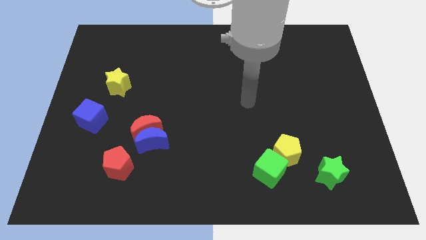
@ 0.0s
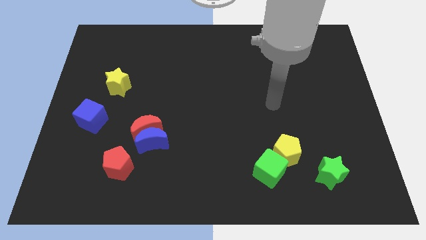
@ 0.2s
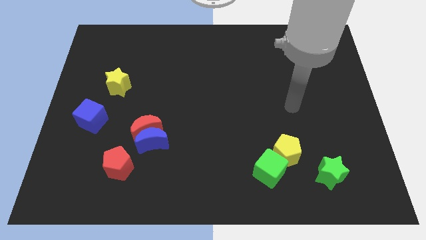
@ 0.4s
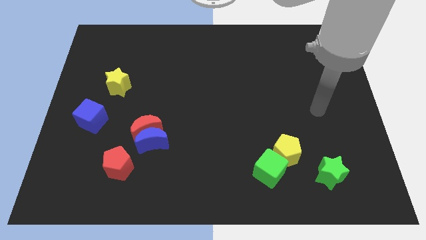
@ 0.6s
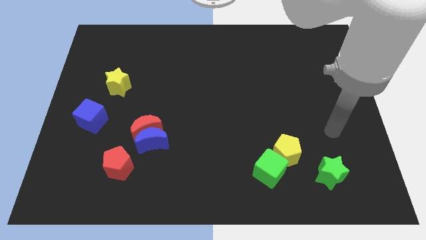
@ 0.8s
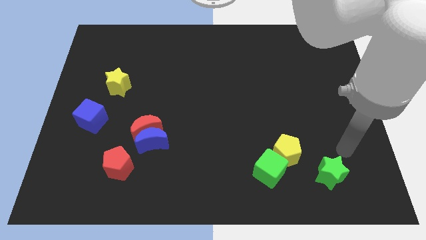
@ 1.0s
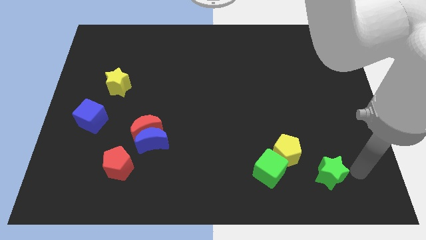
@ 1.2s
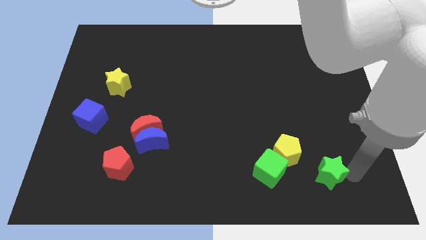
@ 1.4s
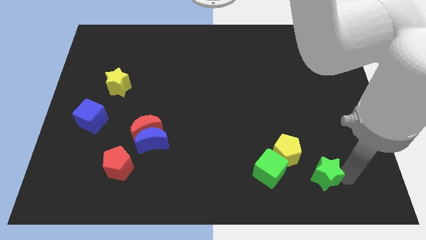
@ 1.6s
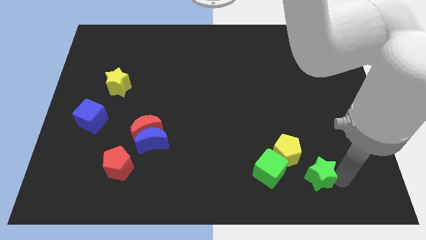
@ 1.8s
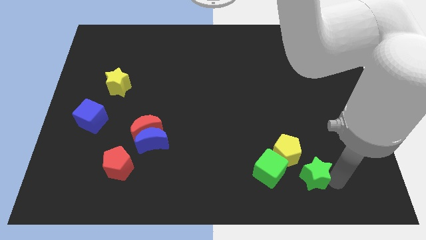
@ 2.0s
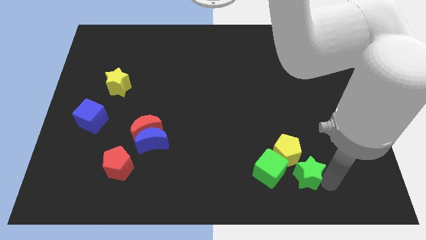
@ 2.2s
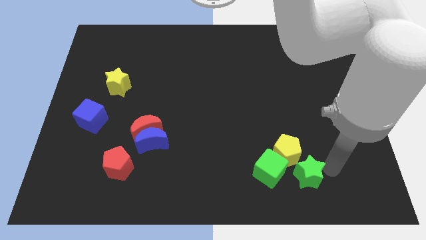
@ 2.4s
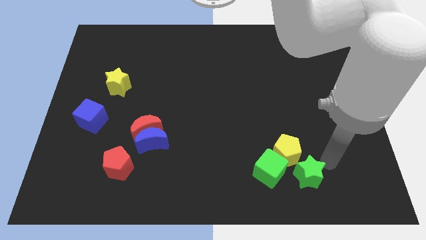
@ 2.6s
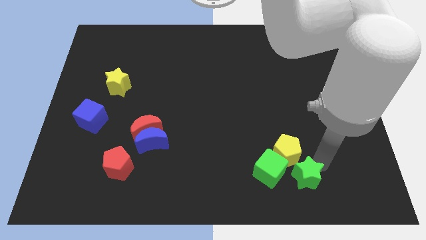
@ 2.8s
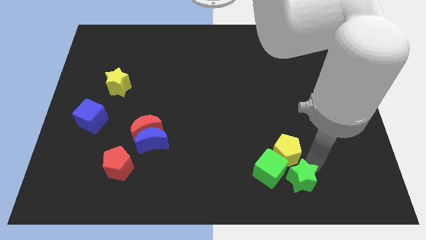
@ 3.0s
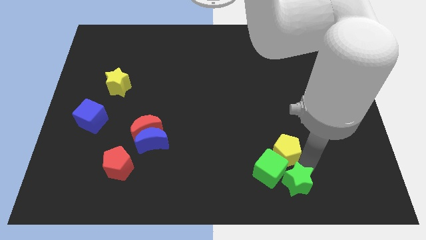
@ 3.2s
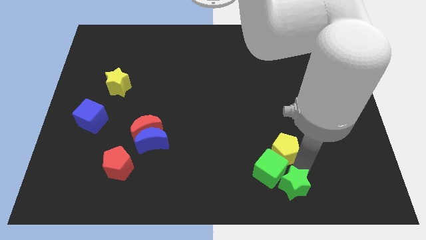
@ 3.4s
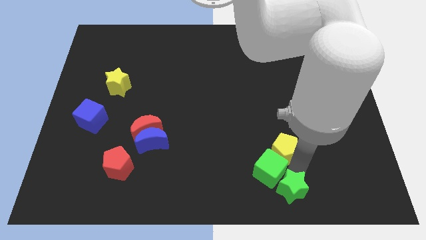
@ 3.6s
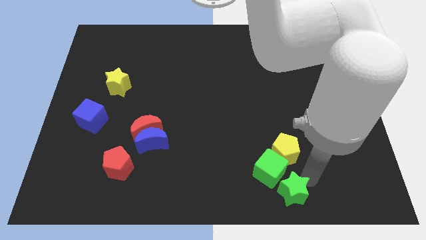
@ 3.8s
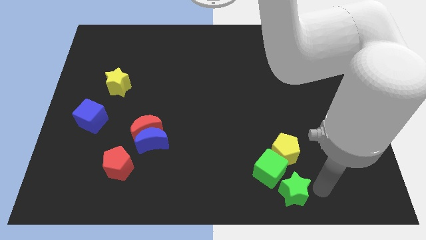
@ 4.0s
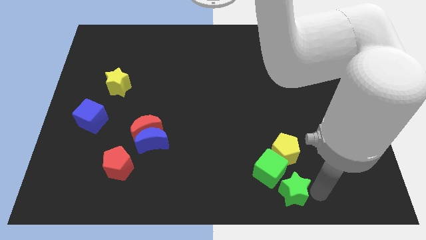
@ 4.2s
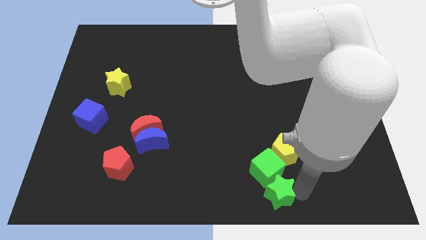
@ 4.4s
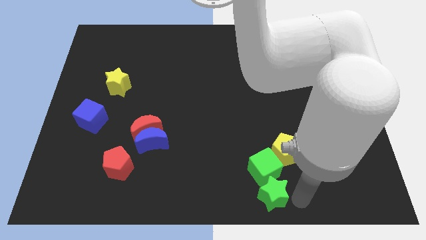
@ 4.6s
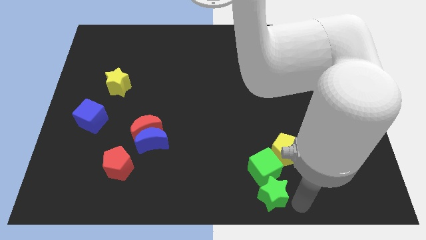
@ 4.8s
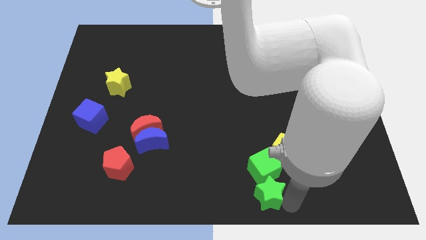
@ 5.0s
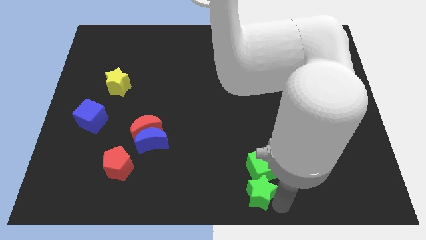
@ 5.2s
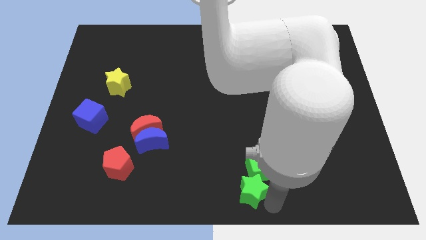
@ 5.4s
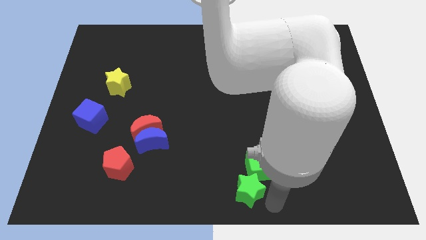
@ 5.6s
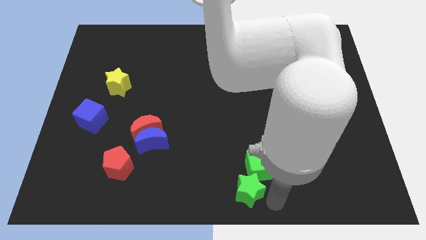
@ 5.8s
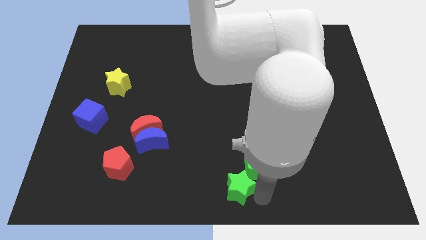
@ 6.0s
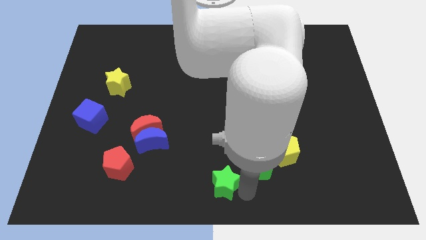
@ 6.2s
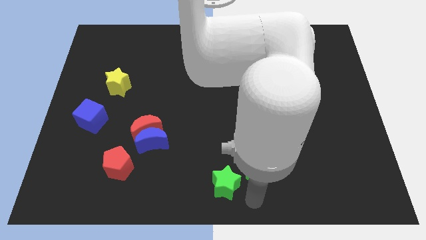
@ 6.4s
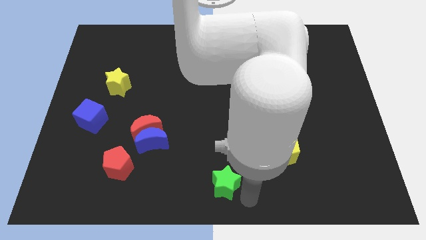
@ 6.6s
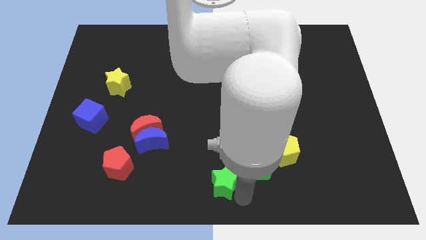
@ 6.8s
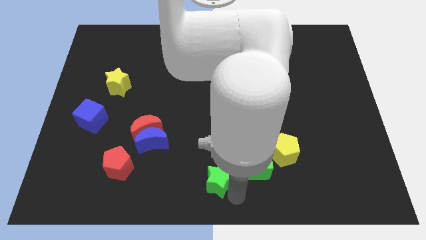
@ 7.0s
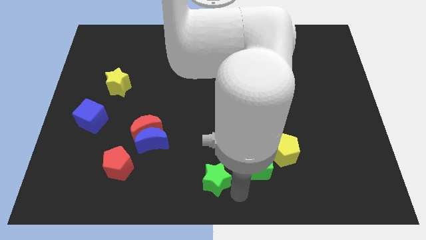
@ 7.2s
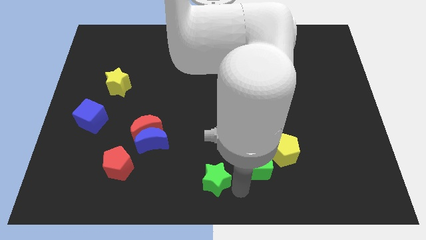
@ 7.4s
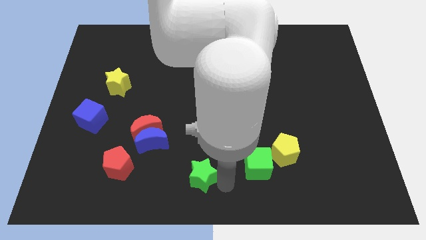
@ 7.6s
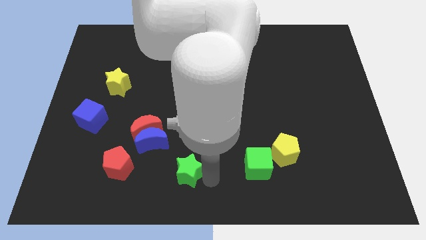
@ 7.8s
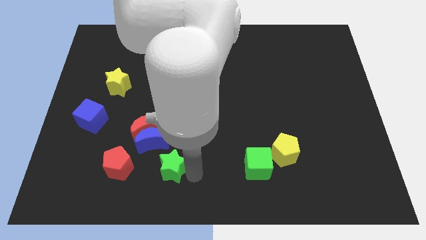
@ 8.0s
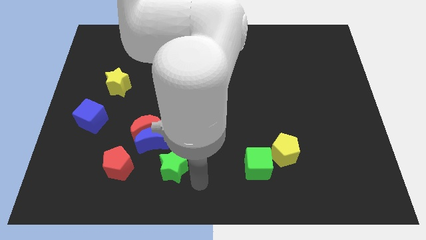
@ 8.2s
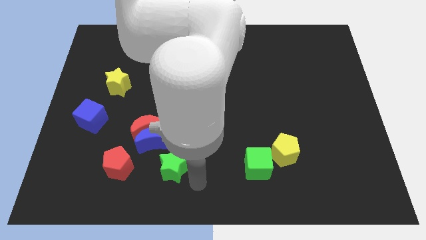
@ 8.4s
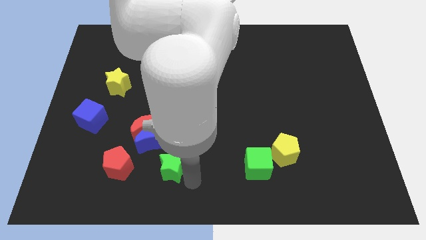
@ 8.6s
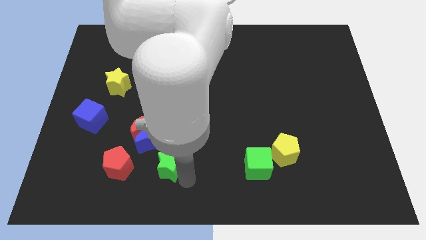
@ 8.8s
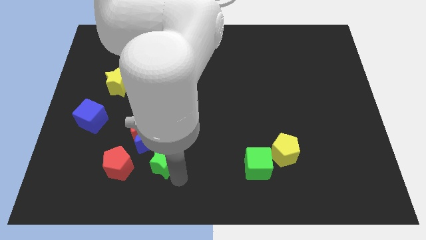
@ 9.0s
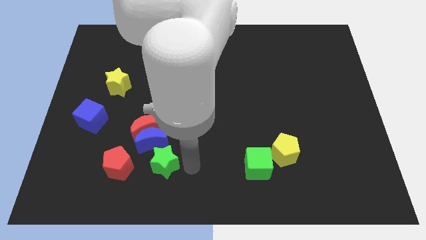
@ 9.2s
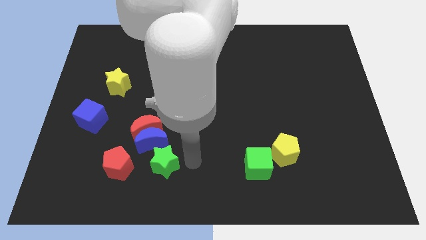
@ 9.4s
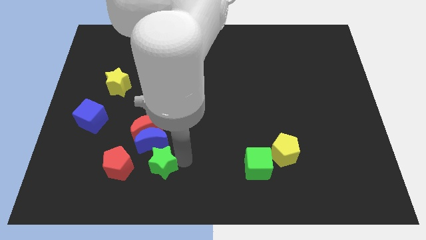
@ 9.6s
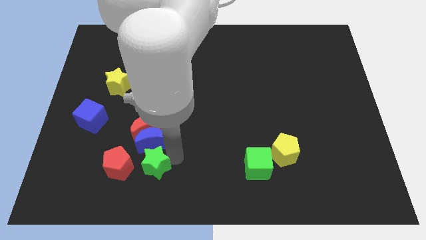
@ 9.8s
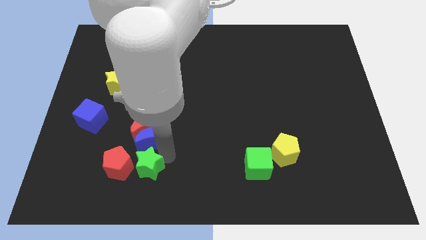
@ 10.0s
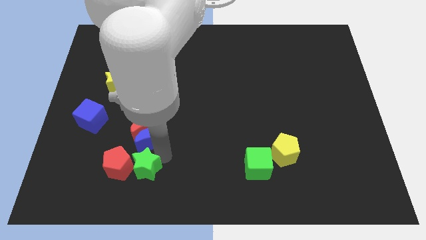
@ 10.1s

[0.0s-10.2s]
slide the green star to the red pentagon

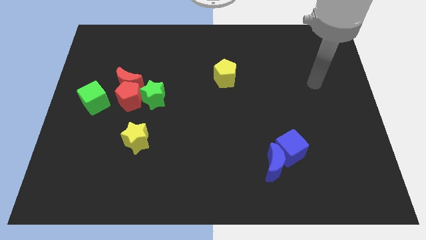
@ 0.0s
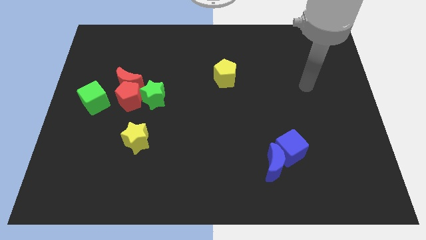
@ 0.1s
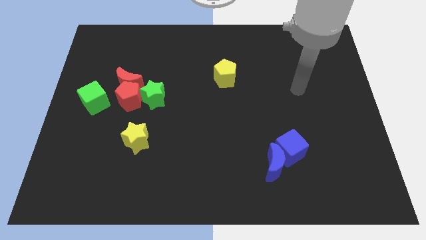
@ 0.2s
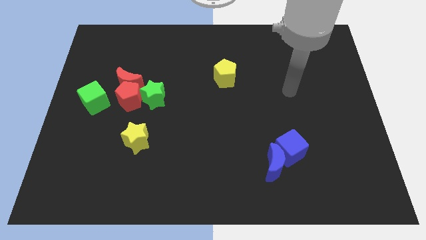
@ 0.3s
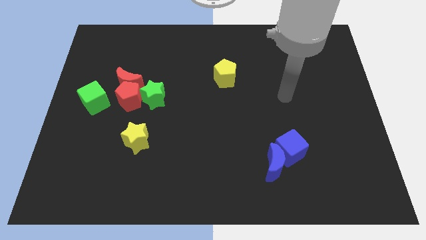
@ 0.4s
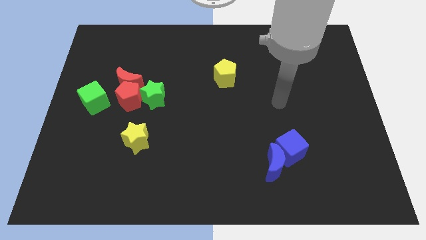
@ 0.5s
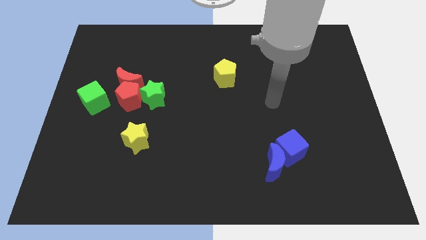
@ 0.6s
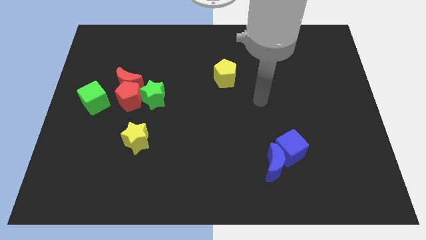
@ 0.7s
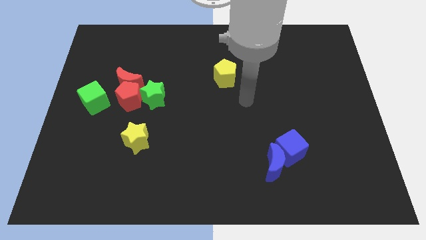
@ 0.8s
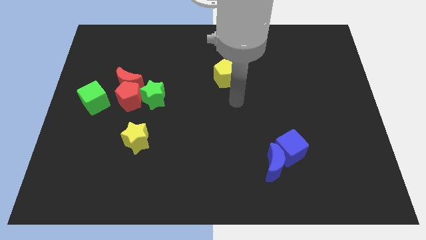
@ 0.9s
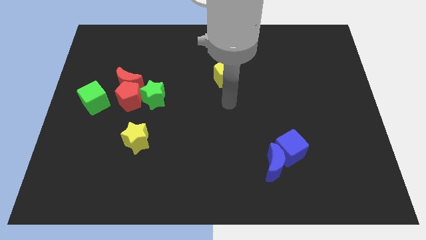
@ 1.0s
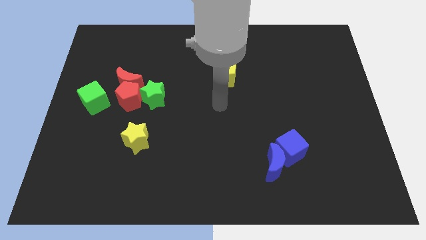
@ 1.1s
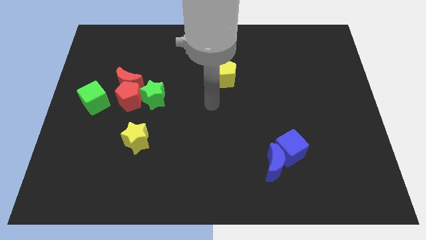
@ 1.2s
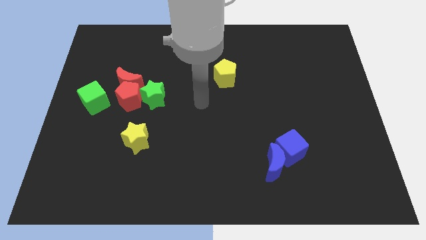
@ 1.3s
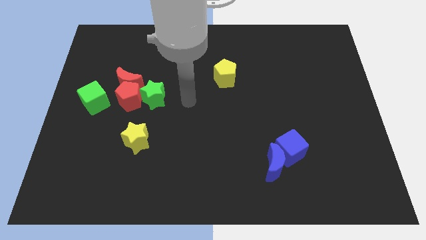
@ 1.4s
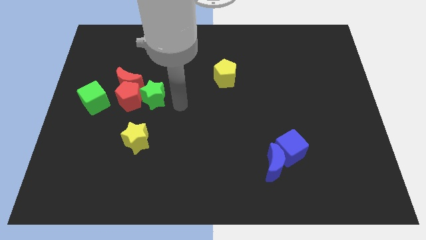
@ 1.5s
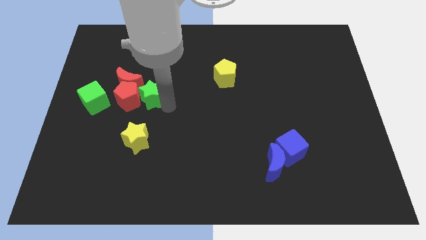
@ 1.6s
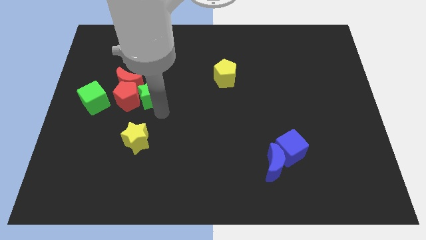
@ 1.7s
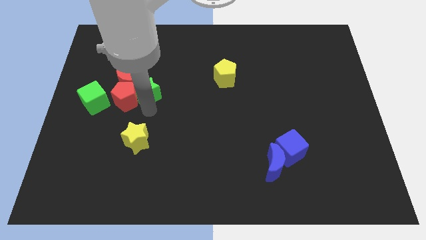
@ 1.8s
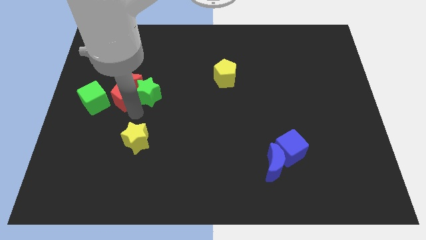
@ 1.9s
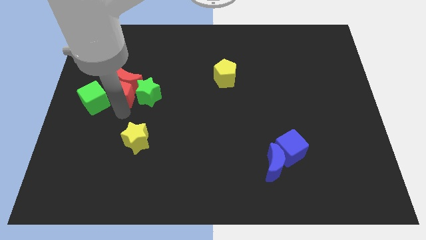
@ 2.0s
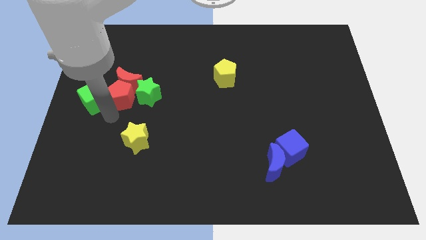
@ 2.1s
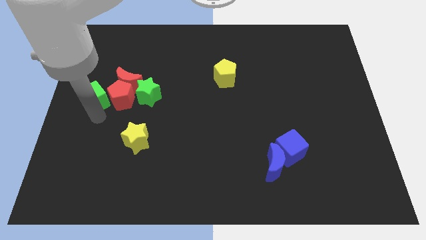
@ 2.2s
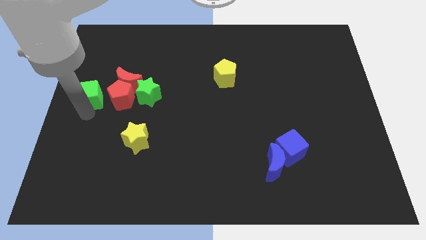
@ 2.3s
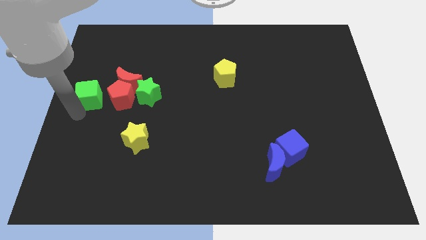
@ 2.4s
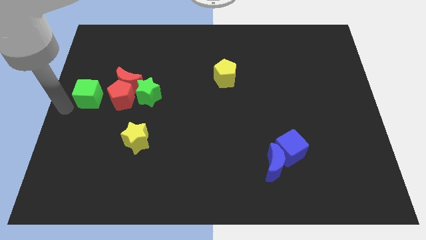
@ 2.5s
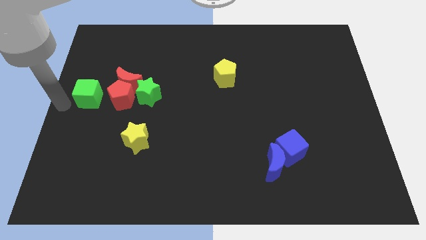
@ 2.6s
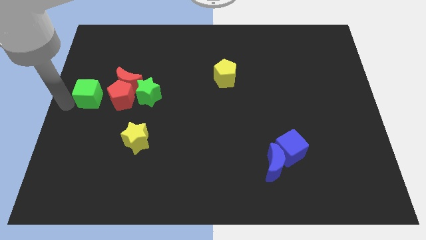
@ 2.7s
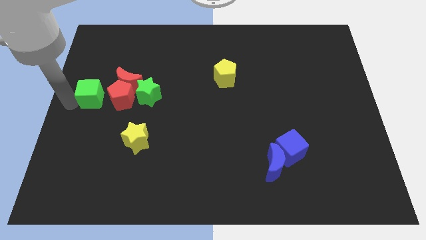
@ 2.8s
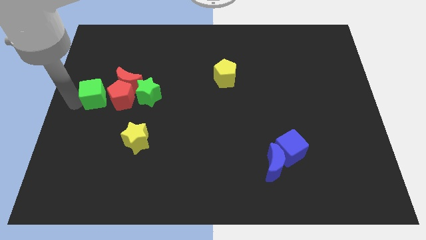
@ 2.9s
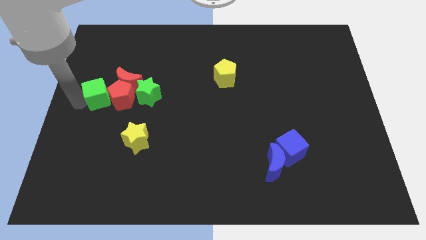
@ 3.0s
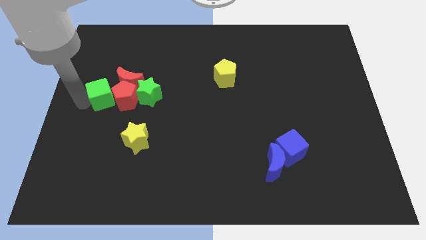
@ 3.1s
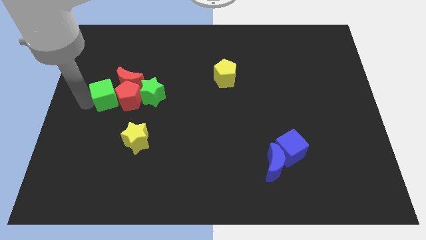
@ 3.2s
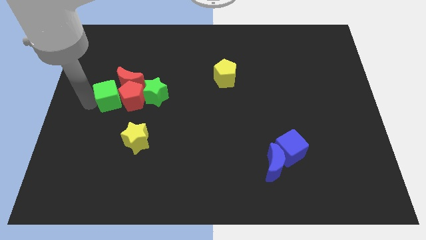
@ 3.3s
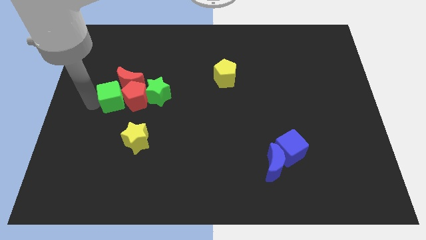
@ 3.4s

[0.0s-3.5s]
slide the green cube towards the red moon
